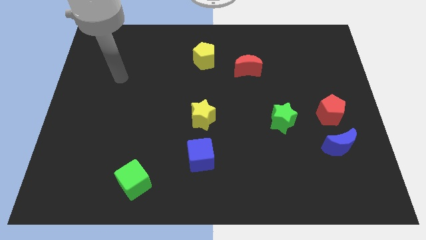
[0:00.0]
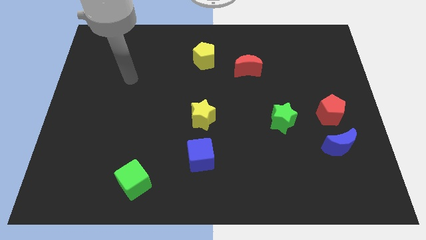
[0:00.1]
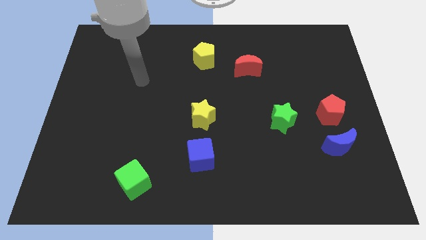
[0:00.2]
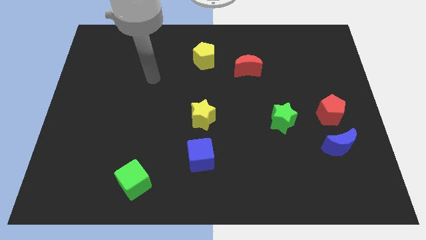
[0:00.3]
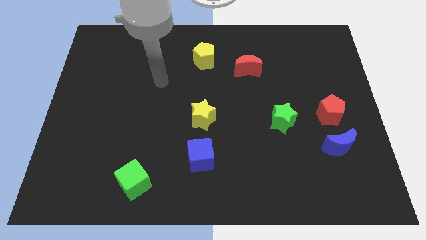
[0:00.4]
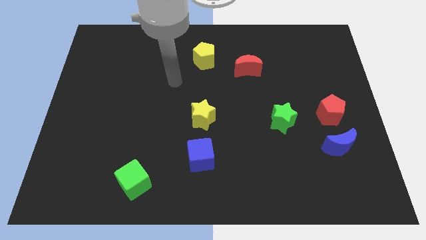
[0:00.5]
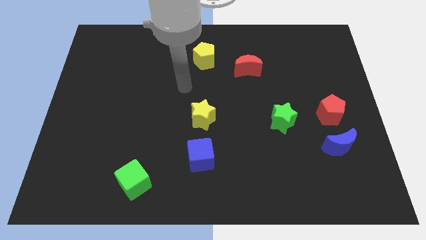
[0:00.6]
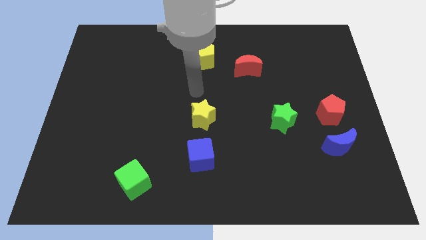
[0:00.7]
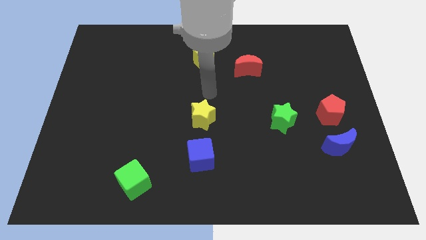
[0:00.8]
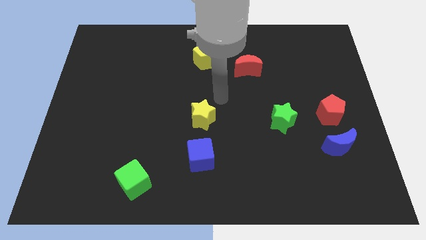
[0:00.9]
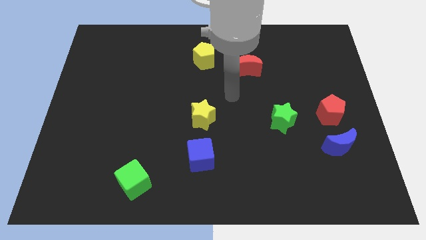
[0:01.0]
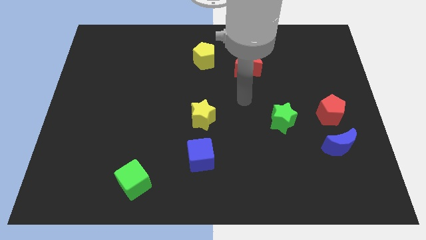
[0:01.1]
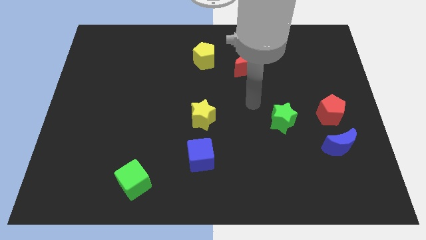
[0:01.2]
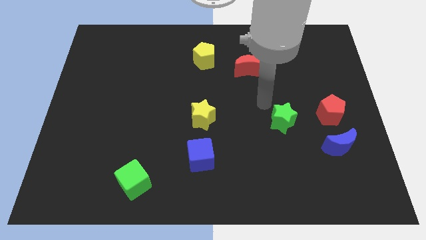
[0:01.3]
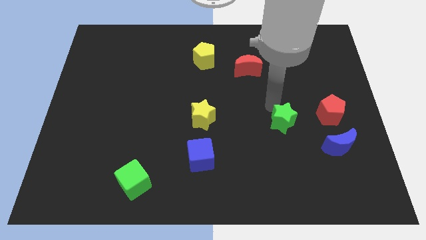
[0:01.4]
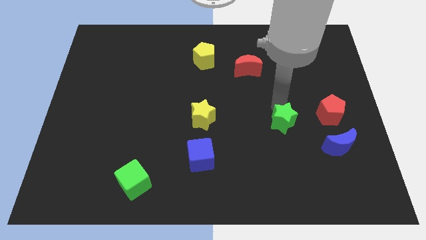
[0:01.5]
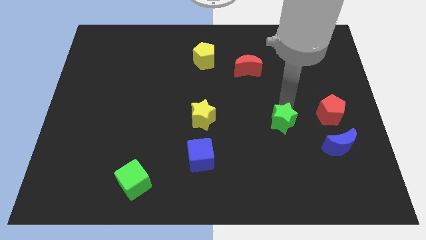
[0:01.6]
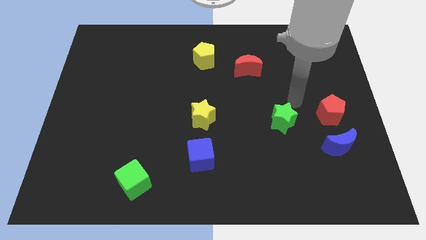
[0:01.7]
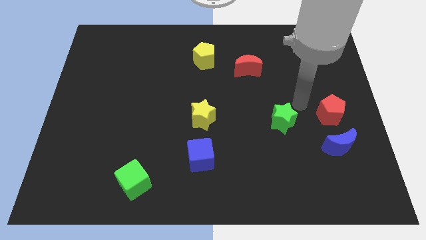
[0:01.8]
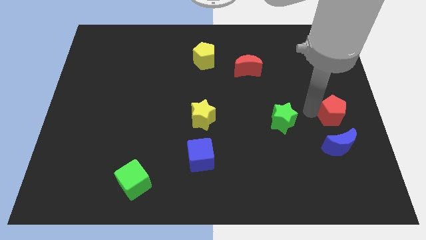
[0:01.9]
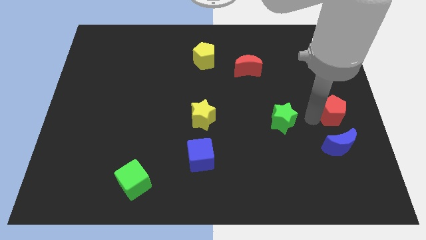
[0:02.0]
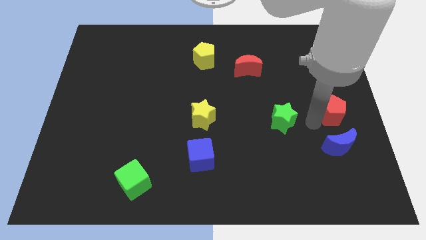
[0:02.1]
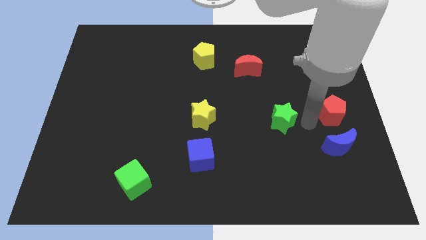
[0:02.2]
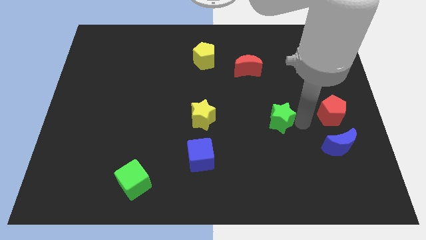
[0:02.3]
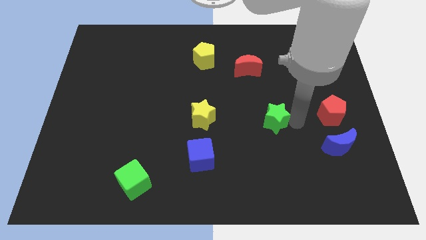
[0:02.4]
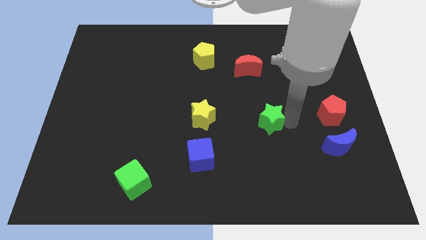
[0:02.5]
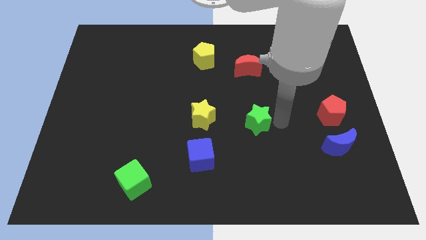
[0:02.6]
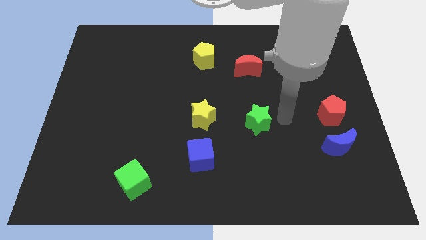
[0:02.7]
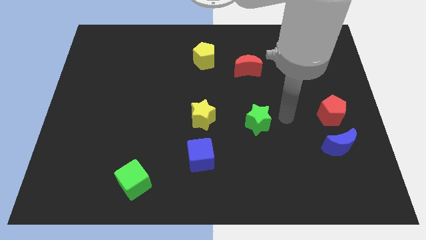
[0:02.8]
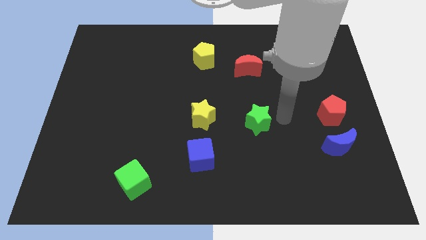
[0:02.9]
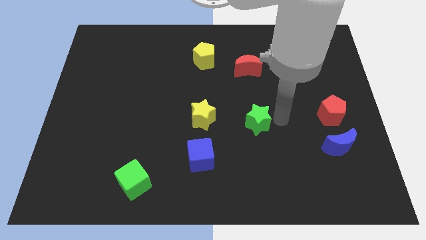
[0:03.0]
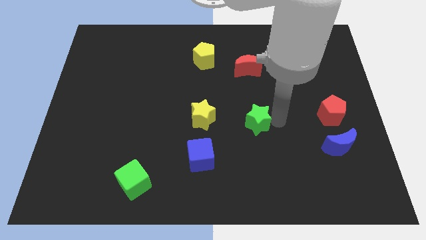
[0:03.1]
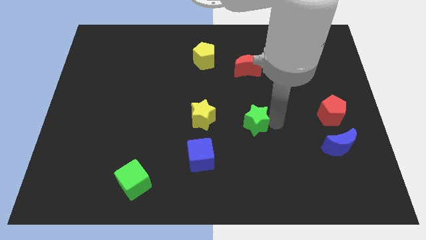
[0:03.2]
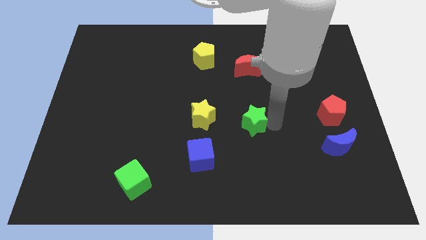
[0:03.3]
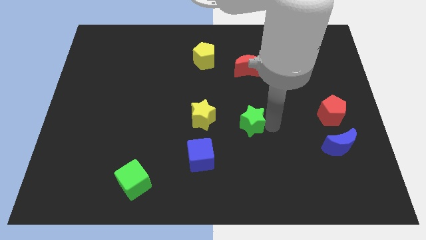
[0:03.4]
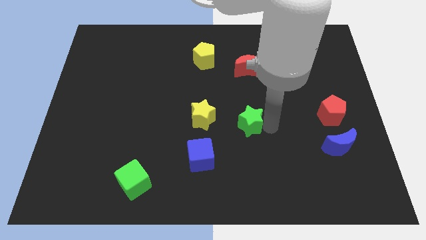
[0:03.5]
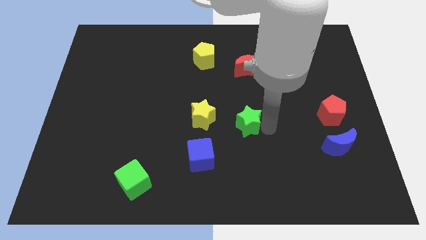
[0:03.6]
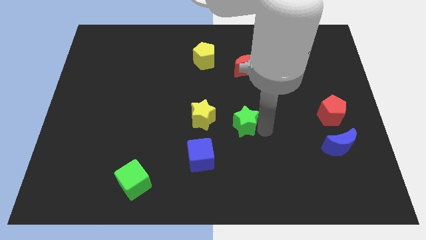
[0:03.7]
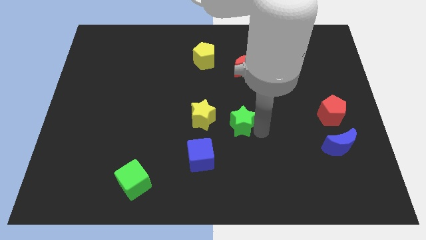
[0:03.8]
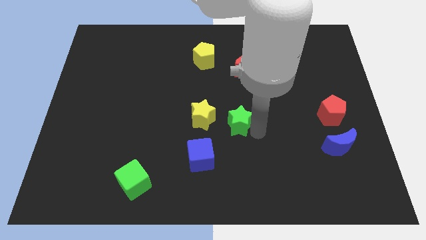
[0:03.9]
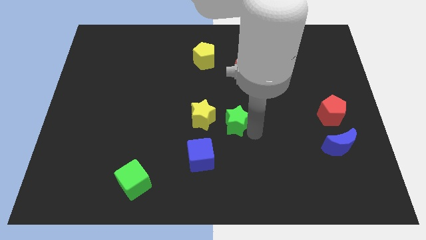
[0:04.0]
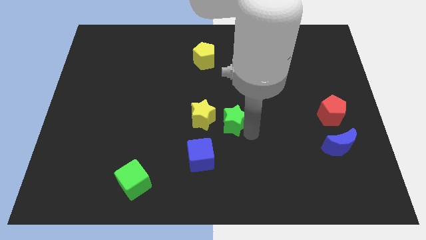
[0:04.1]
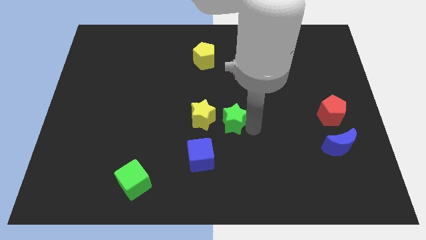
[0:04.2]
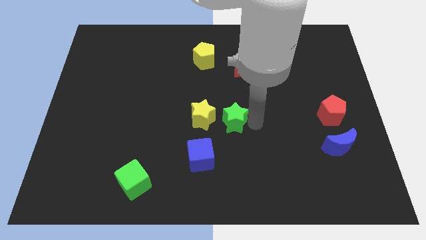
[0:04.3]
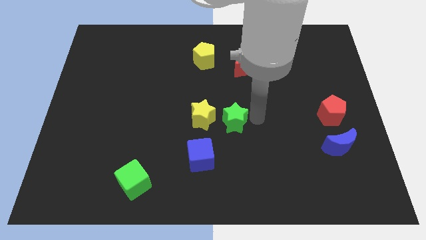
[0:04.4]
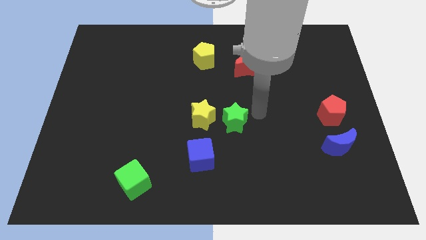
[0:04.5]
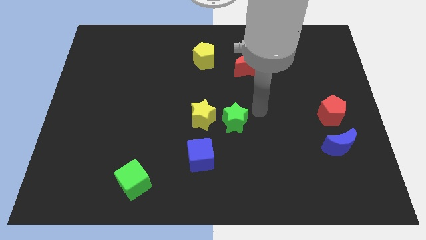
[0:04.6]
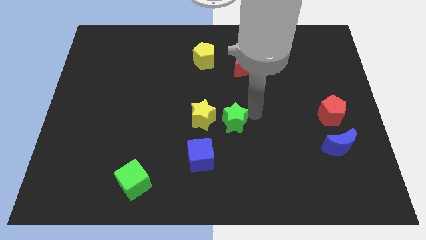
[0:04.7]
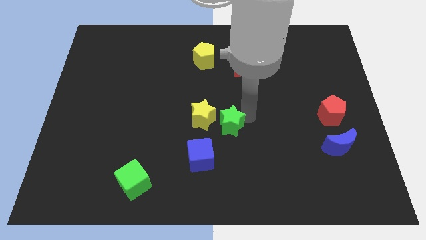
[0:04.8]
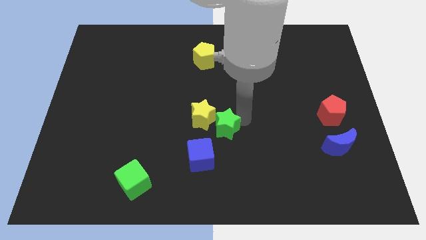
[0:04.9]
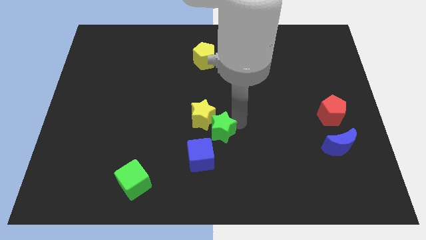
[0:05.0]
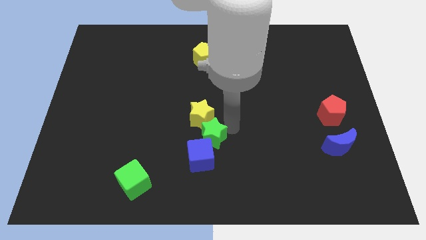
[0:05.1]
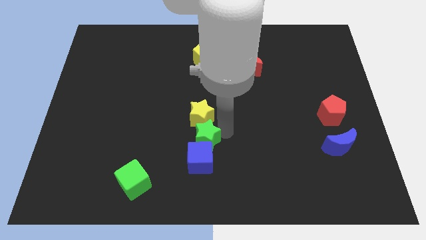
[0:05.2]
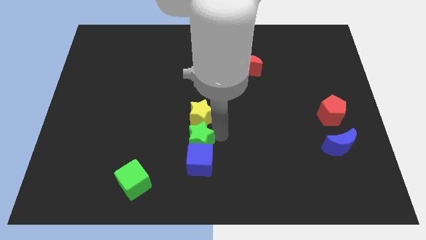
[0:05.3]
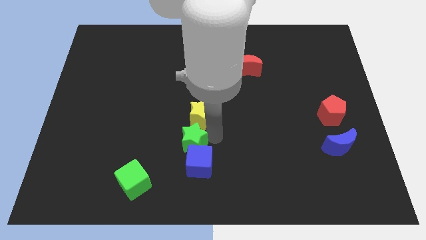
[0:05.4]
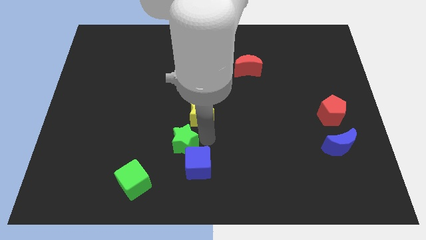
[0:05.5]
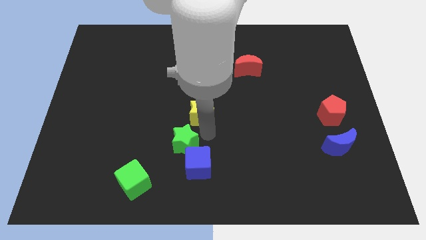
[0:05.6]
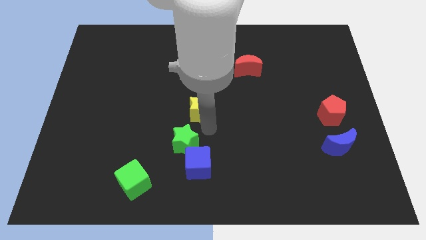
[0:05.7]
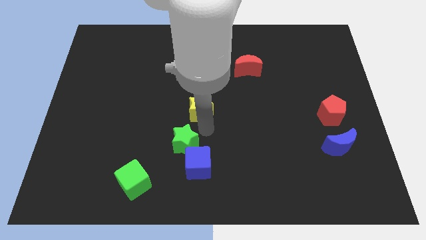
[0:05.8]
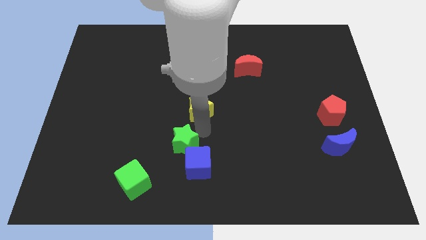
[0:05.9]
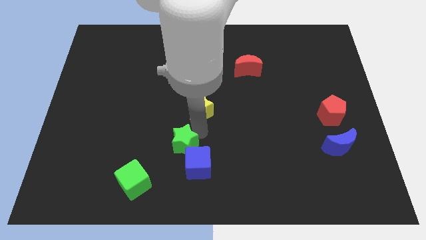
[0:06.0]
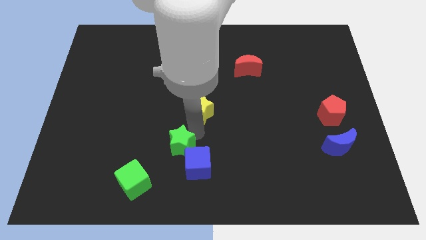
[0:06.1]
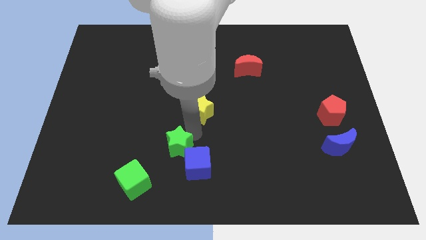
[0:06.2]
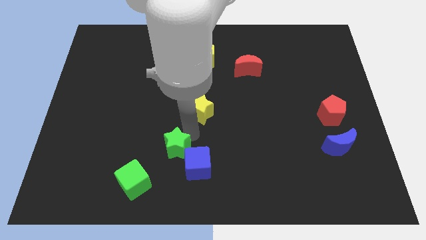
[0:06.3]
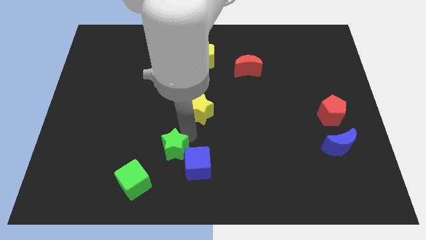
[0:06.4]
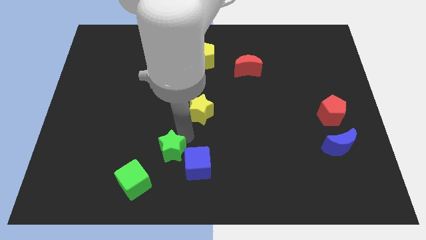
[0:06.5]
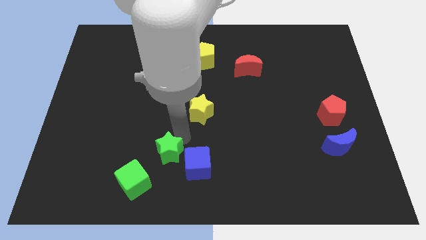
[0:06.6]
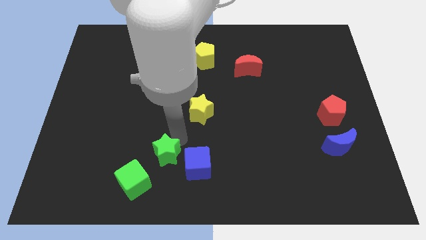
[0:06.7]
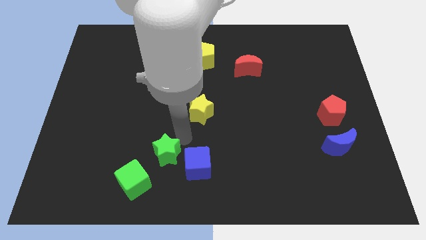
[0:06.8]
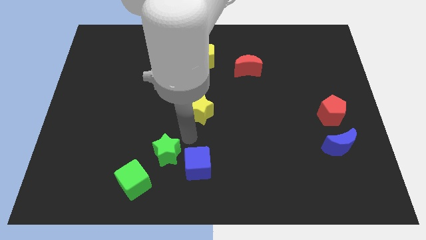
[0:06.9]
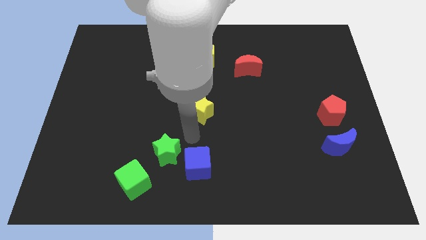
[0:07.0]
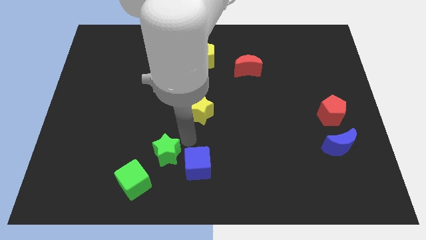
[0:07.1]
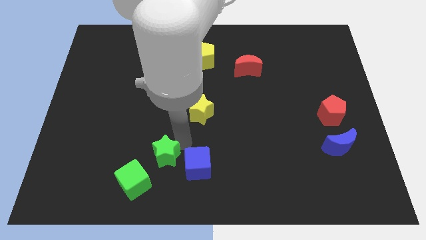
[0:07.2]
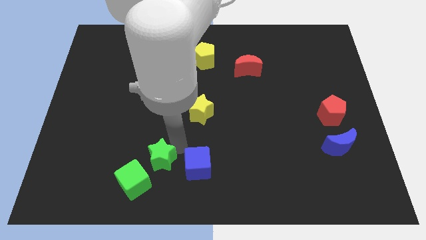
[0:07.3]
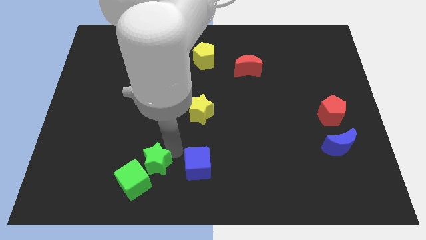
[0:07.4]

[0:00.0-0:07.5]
slide the green star next to the green cube
